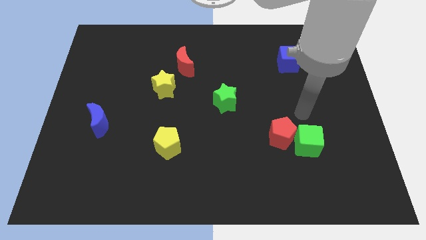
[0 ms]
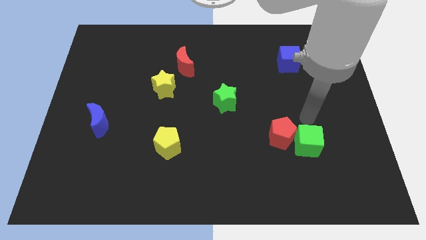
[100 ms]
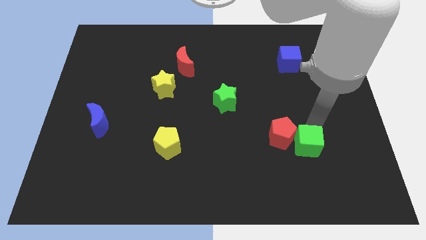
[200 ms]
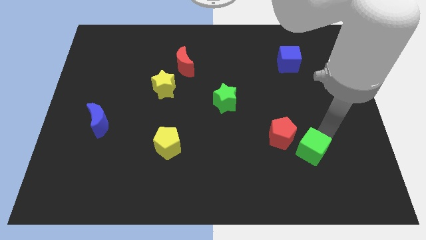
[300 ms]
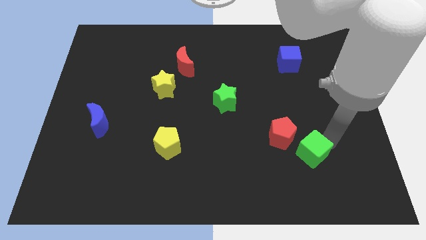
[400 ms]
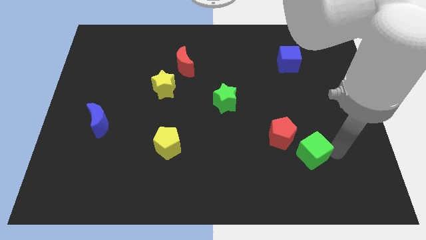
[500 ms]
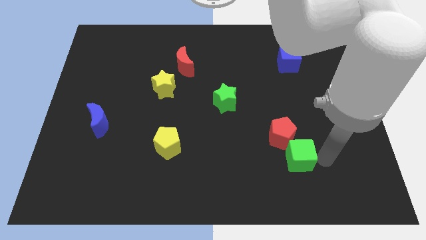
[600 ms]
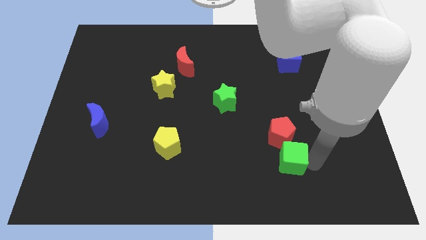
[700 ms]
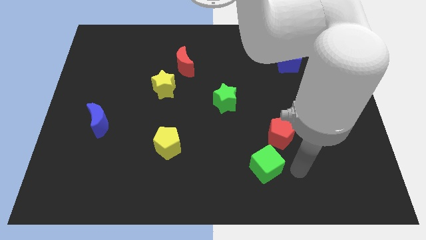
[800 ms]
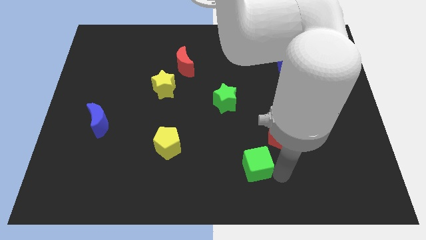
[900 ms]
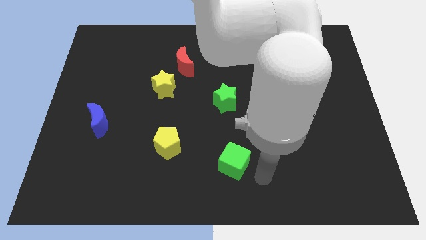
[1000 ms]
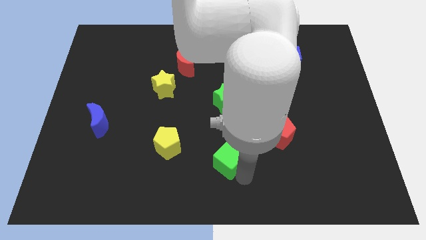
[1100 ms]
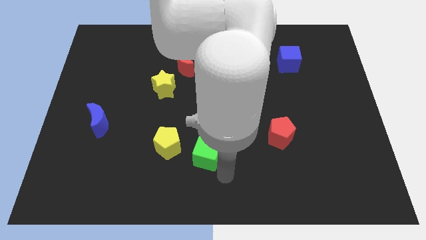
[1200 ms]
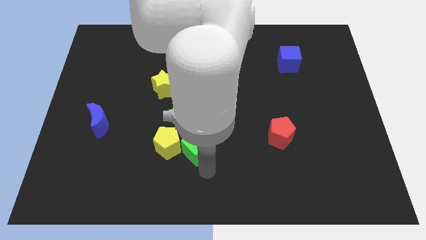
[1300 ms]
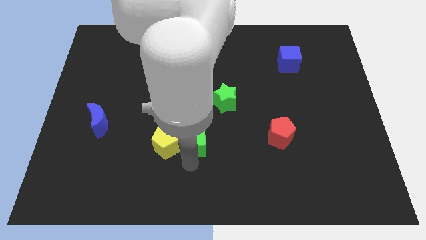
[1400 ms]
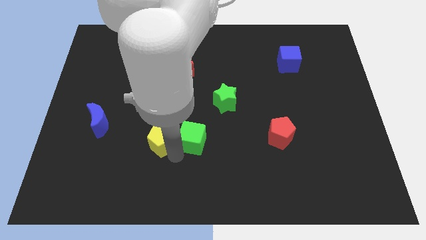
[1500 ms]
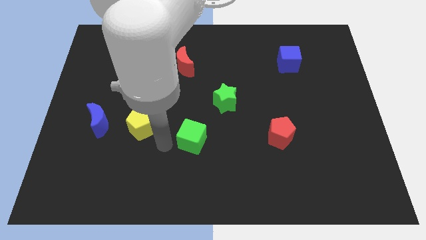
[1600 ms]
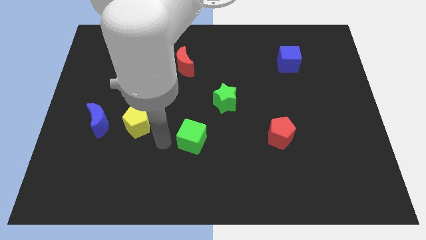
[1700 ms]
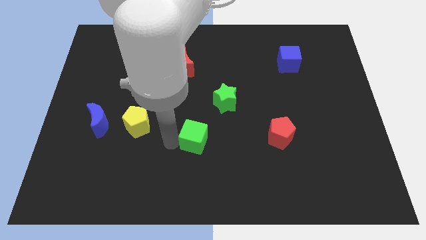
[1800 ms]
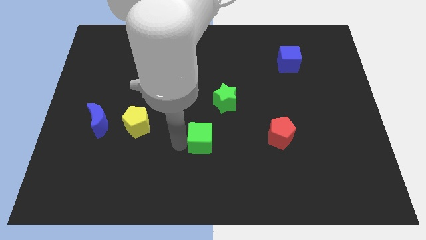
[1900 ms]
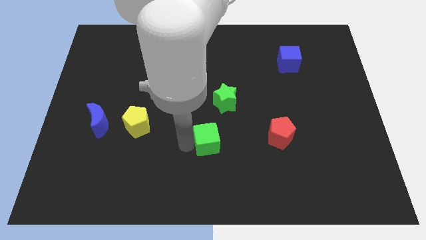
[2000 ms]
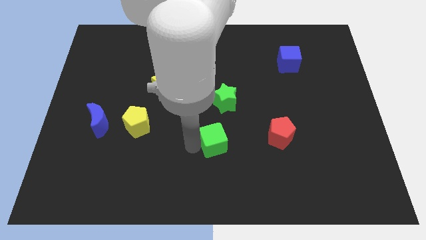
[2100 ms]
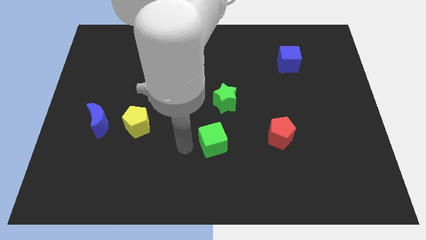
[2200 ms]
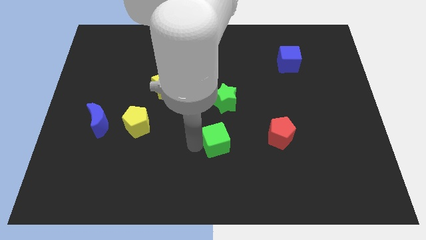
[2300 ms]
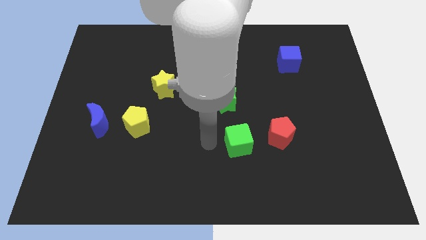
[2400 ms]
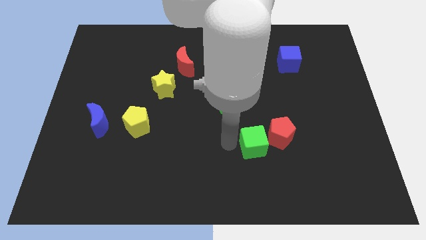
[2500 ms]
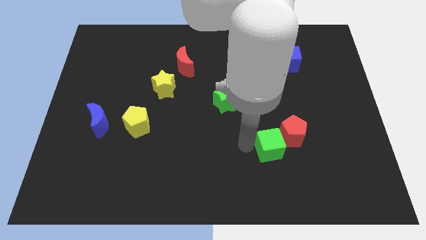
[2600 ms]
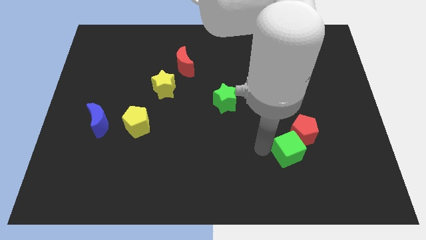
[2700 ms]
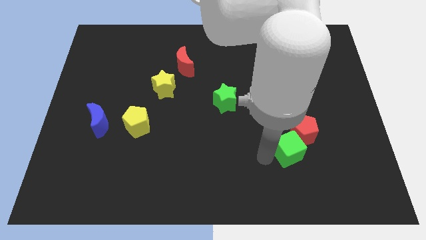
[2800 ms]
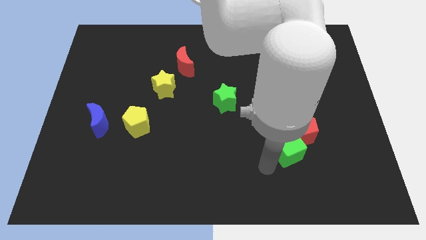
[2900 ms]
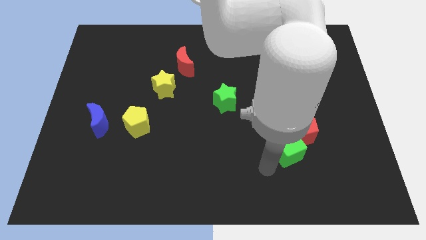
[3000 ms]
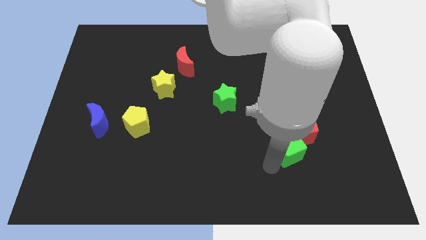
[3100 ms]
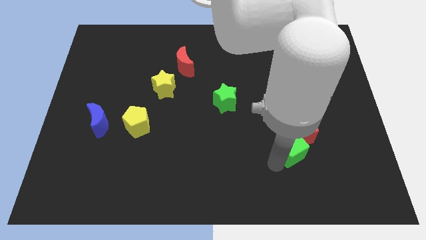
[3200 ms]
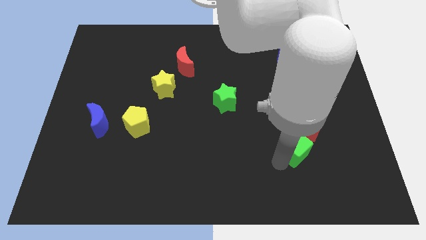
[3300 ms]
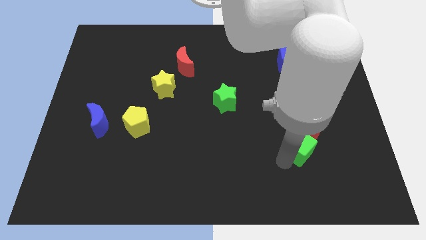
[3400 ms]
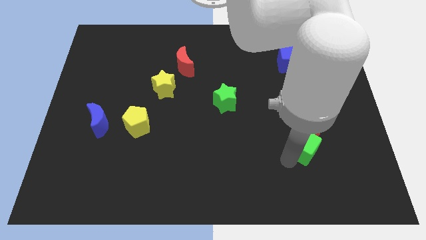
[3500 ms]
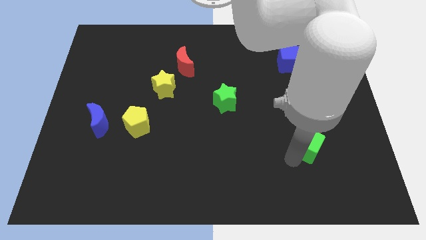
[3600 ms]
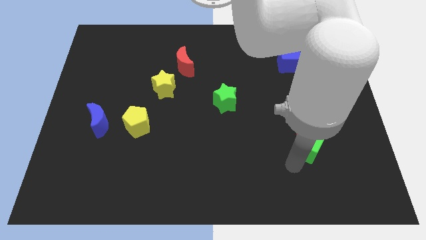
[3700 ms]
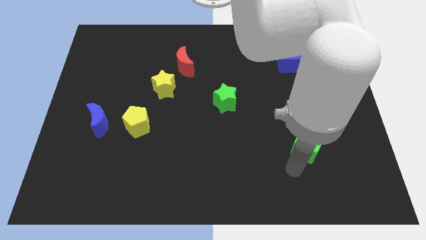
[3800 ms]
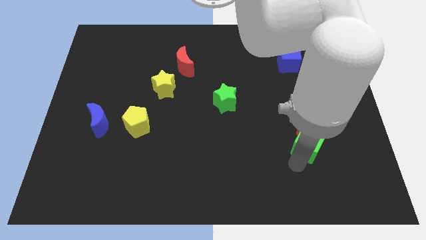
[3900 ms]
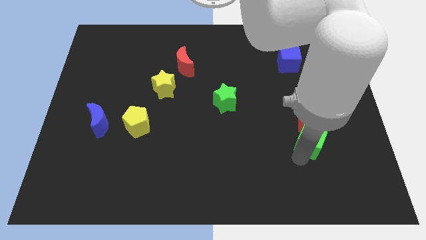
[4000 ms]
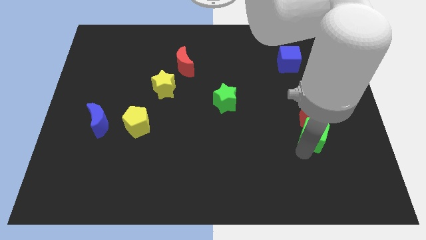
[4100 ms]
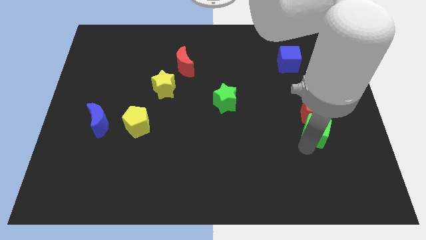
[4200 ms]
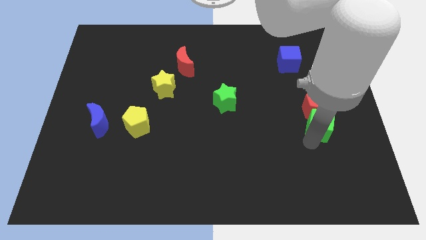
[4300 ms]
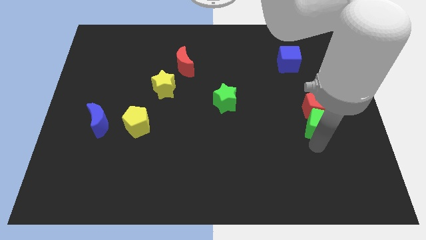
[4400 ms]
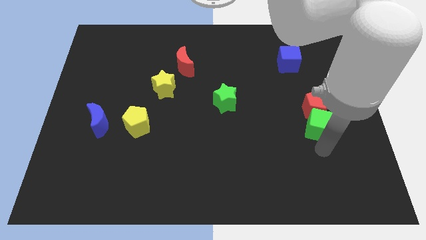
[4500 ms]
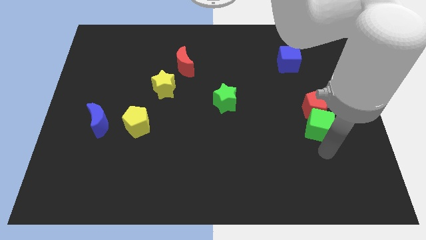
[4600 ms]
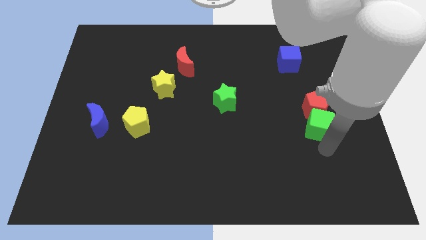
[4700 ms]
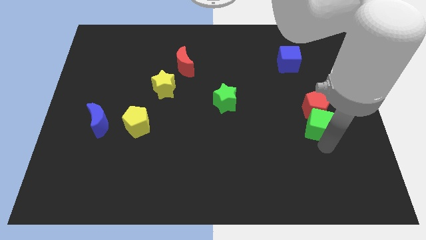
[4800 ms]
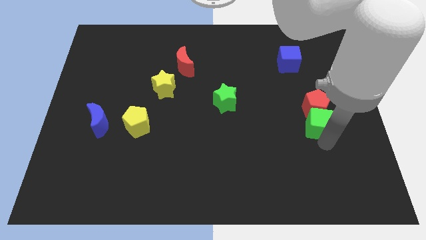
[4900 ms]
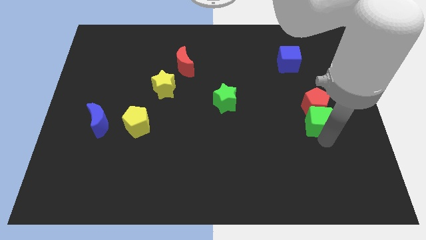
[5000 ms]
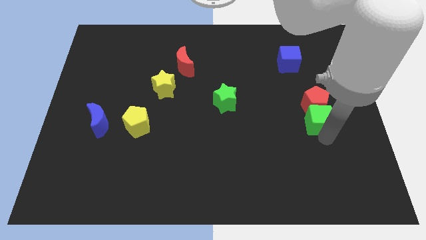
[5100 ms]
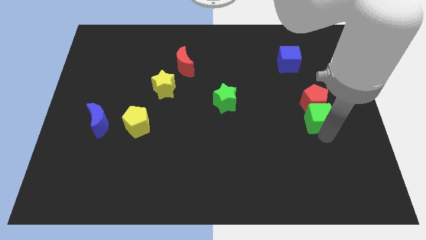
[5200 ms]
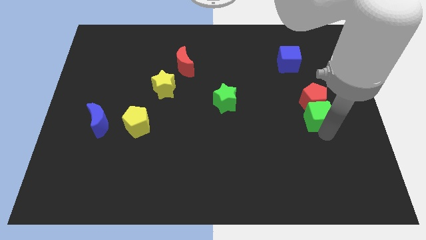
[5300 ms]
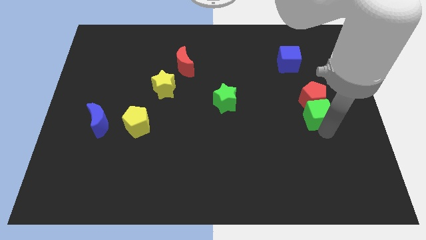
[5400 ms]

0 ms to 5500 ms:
slightly move the green cube up

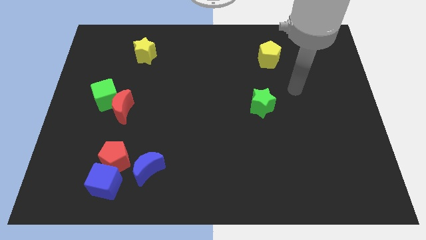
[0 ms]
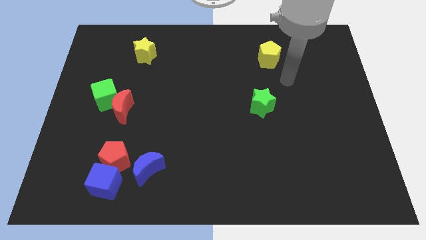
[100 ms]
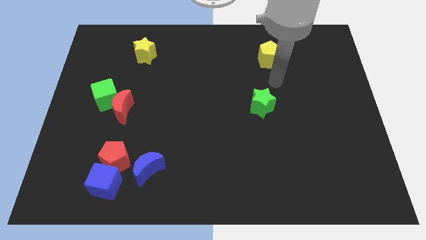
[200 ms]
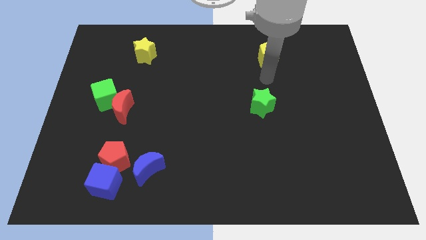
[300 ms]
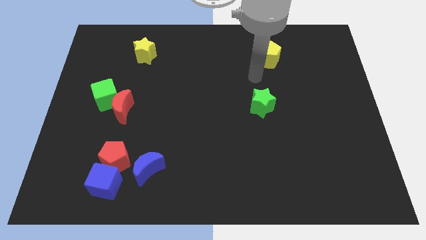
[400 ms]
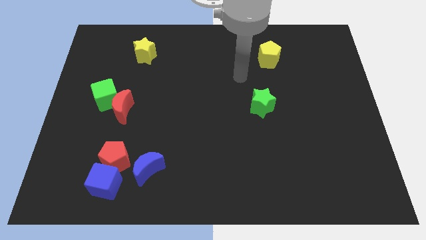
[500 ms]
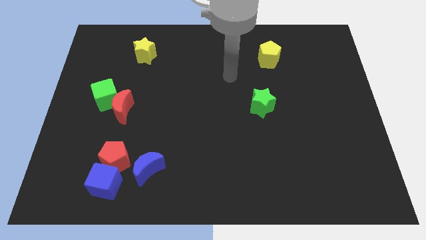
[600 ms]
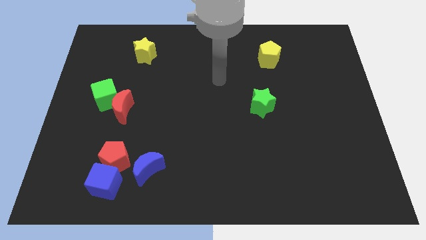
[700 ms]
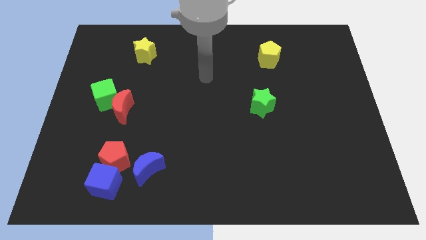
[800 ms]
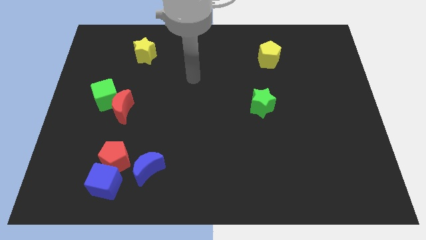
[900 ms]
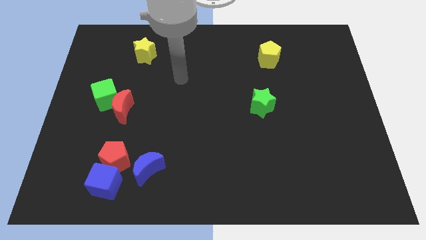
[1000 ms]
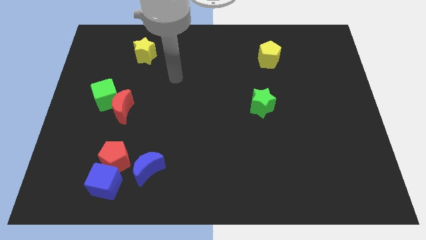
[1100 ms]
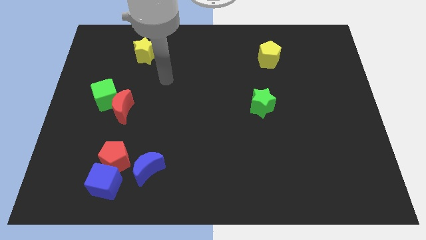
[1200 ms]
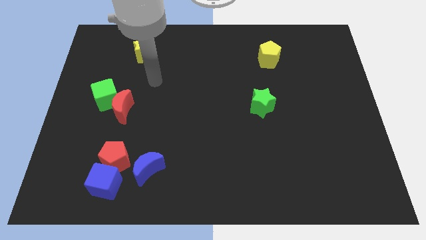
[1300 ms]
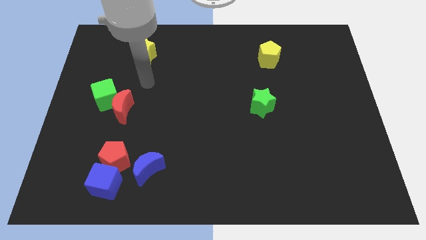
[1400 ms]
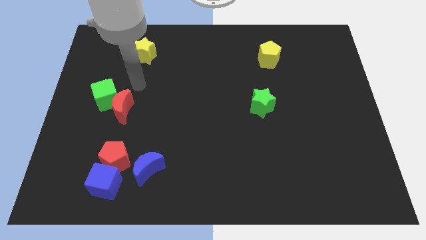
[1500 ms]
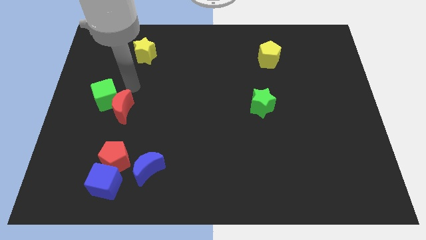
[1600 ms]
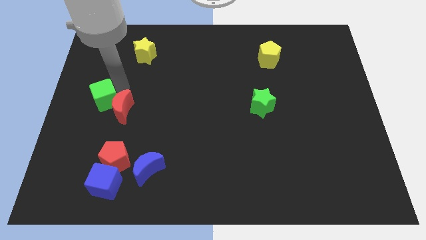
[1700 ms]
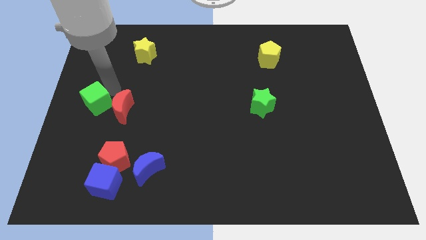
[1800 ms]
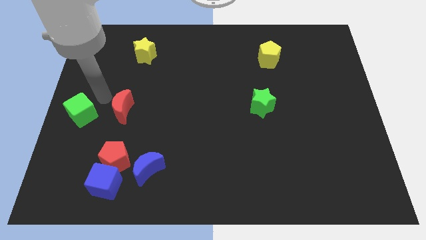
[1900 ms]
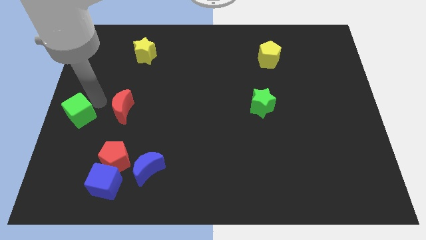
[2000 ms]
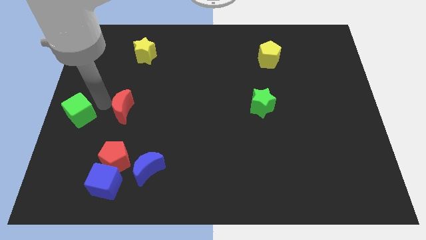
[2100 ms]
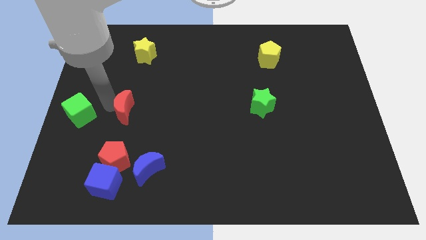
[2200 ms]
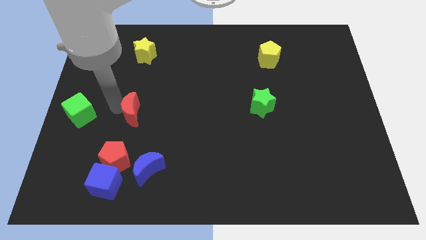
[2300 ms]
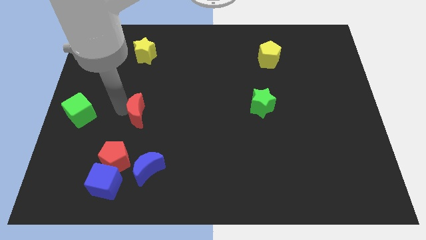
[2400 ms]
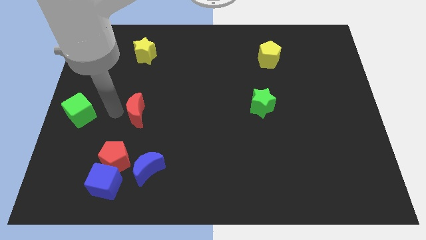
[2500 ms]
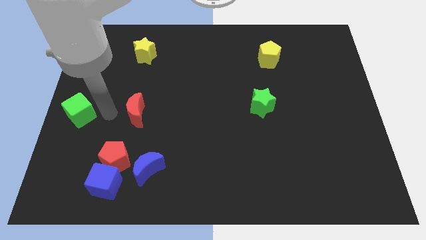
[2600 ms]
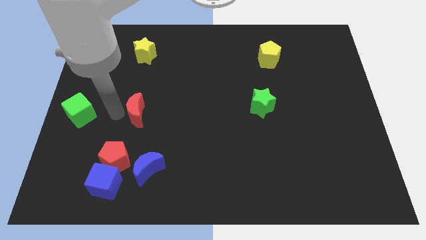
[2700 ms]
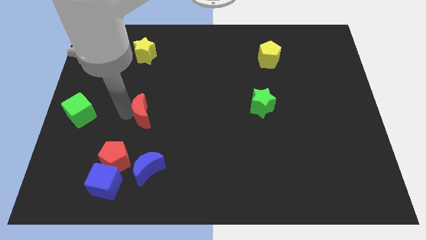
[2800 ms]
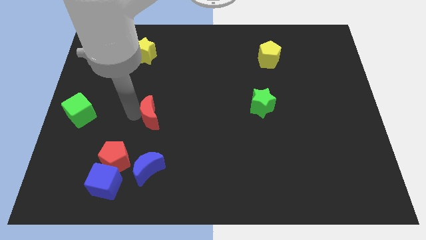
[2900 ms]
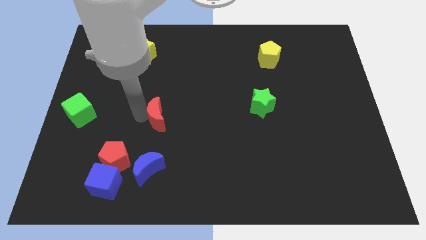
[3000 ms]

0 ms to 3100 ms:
slightly slide the red moon to the right
